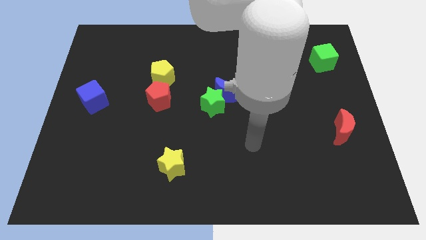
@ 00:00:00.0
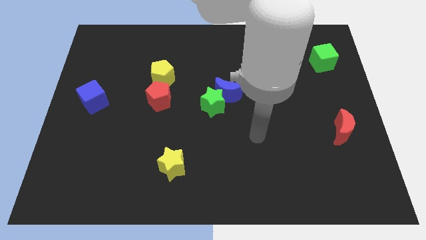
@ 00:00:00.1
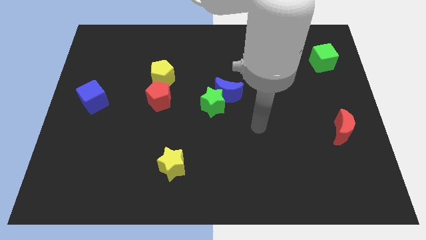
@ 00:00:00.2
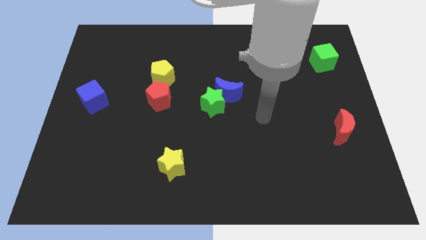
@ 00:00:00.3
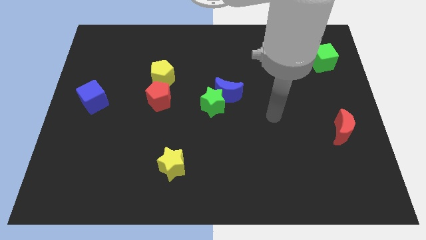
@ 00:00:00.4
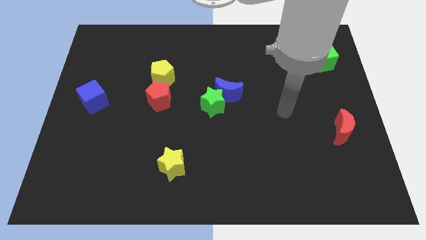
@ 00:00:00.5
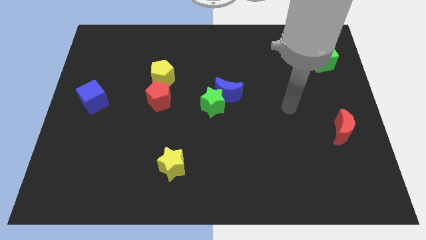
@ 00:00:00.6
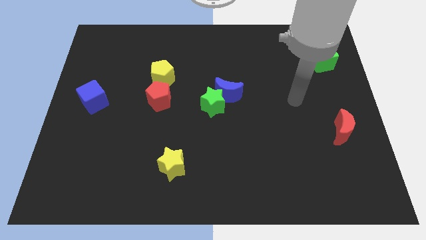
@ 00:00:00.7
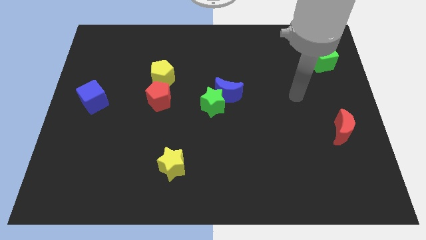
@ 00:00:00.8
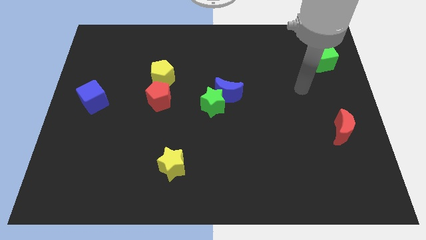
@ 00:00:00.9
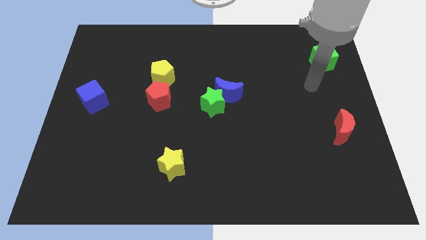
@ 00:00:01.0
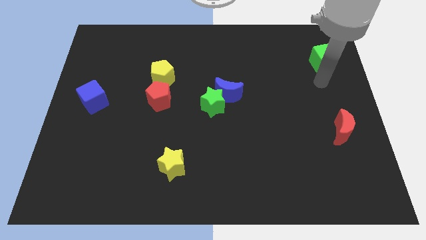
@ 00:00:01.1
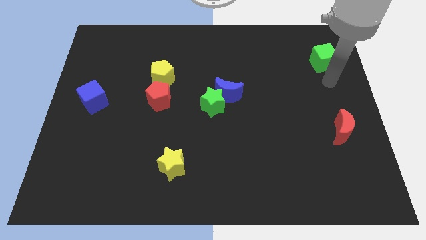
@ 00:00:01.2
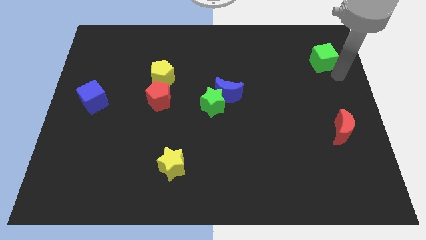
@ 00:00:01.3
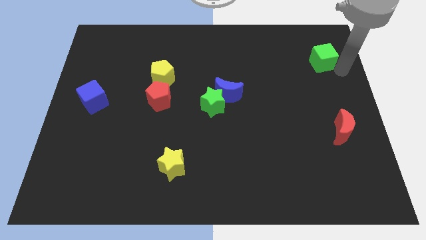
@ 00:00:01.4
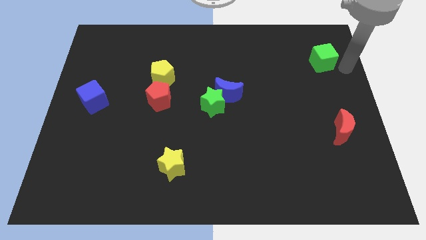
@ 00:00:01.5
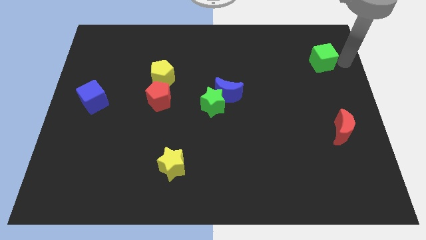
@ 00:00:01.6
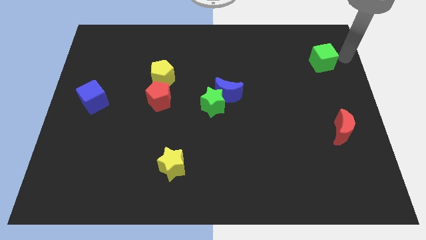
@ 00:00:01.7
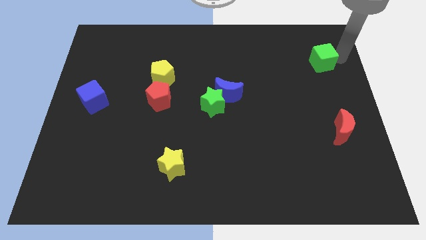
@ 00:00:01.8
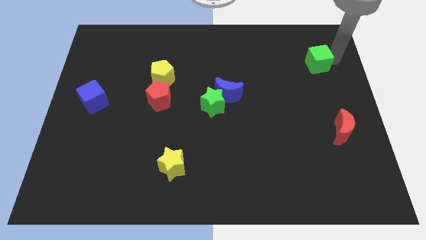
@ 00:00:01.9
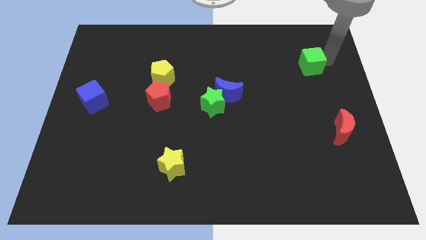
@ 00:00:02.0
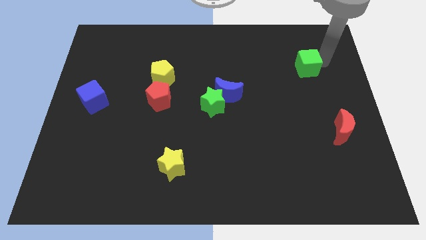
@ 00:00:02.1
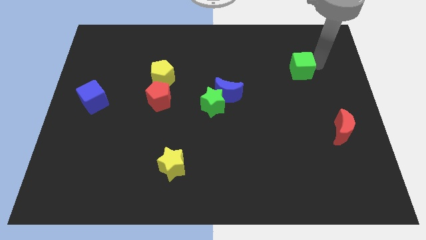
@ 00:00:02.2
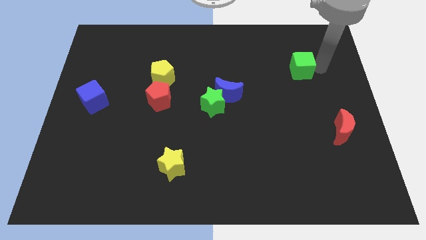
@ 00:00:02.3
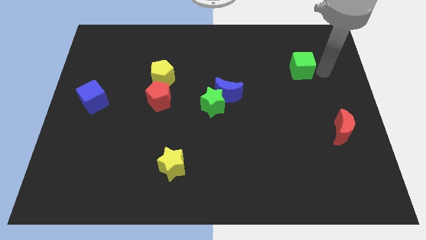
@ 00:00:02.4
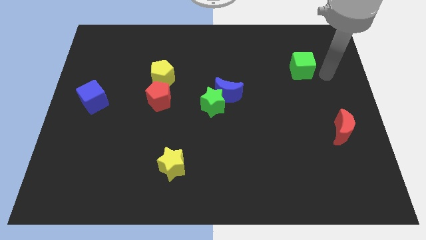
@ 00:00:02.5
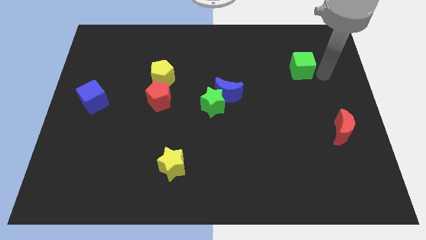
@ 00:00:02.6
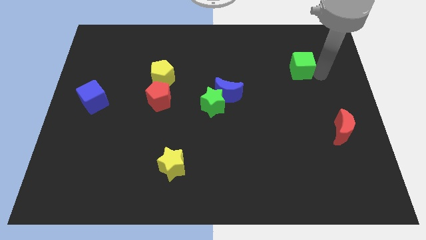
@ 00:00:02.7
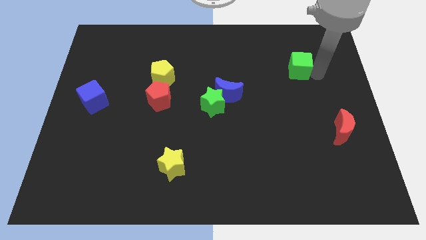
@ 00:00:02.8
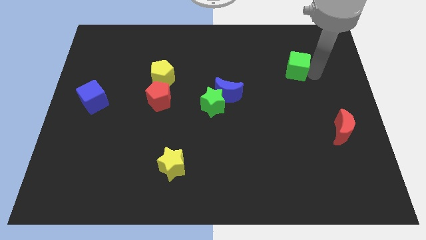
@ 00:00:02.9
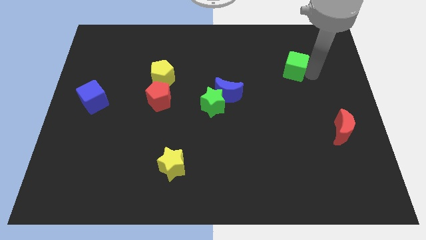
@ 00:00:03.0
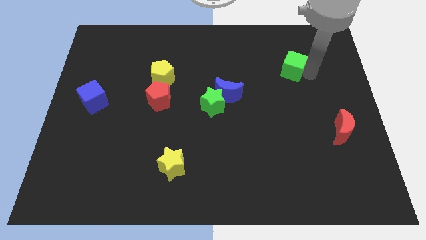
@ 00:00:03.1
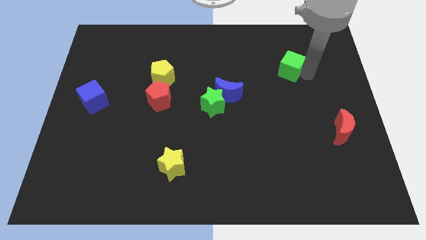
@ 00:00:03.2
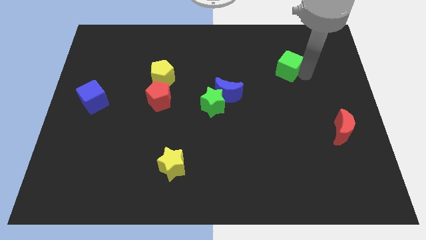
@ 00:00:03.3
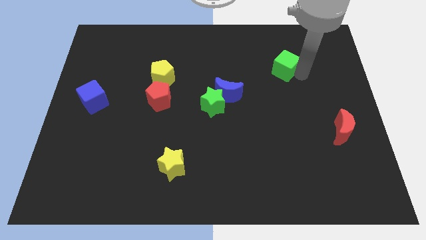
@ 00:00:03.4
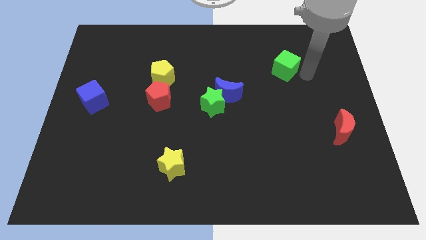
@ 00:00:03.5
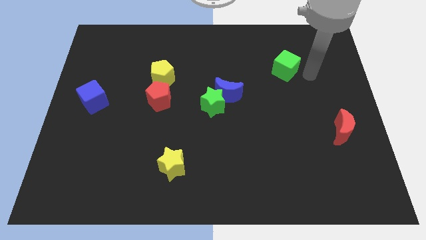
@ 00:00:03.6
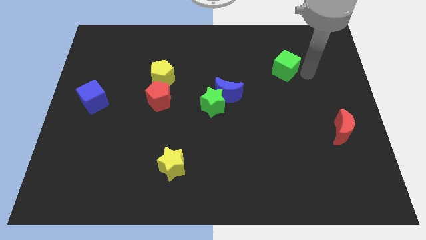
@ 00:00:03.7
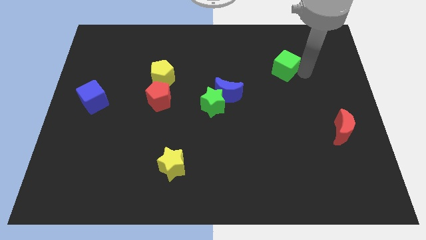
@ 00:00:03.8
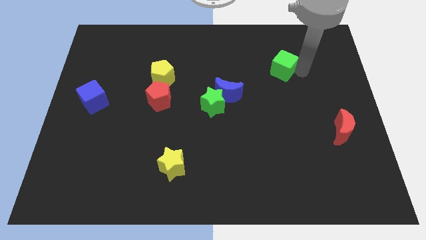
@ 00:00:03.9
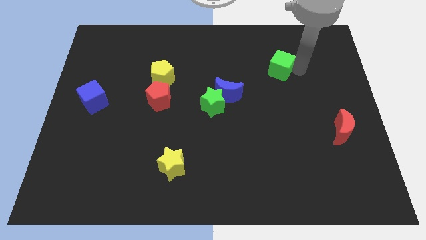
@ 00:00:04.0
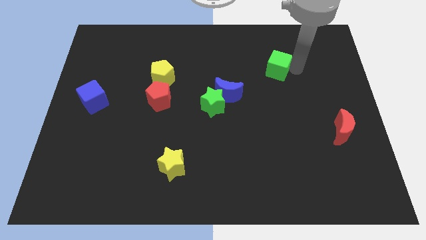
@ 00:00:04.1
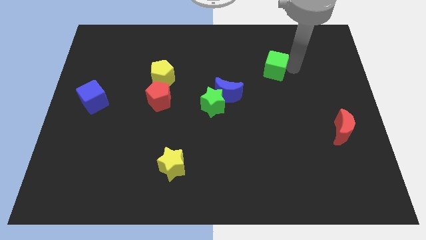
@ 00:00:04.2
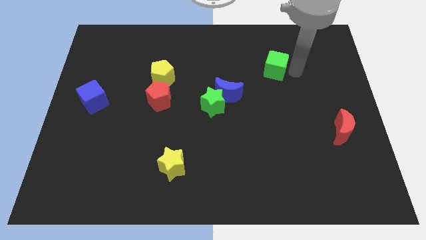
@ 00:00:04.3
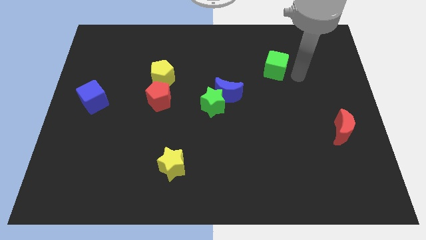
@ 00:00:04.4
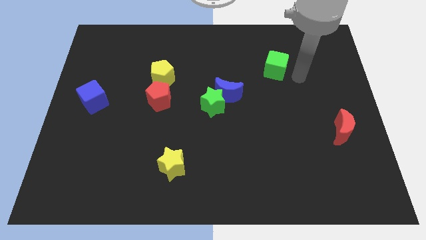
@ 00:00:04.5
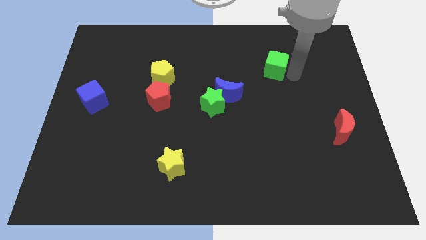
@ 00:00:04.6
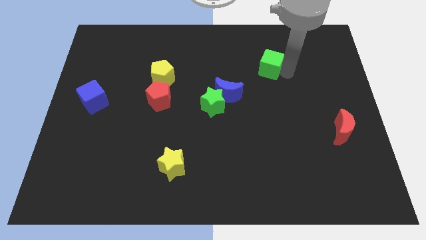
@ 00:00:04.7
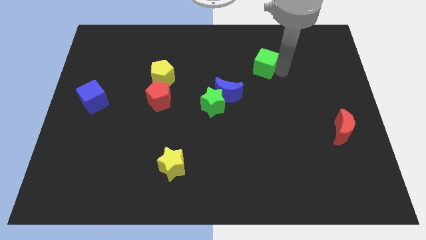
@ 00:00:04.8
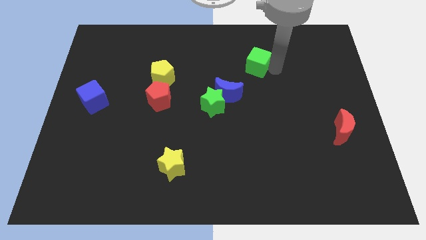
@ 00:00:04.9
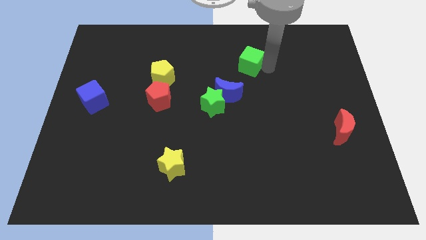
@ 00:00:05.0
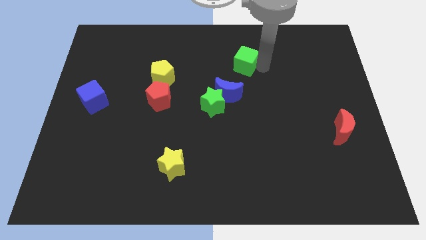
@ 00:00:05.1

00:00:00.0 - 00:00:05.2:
slide the green cube left

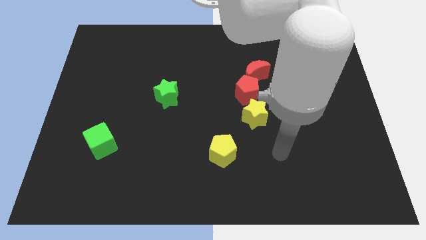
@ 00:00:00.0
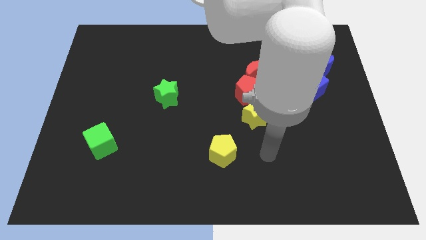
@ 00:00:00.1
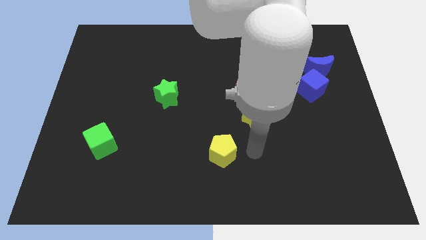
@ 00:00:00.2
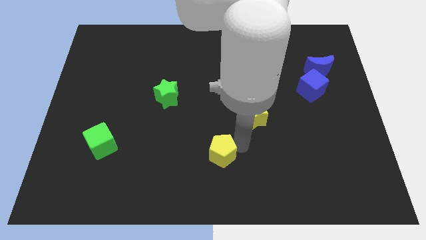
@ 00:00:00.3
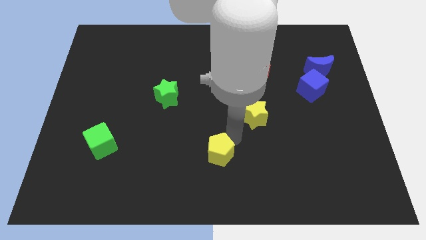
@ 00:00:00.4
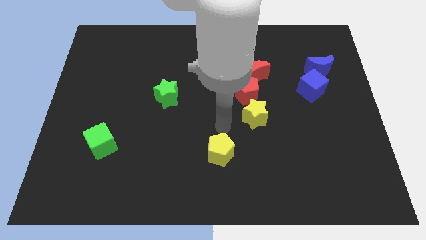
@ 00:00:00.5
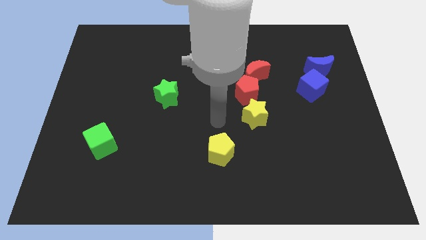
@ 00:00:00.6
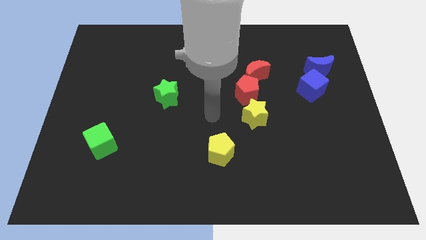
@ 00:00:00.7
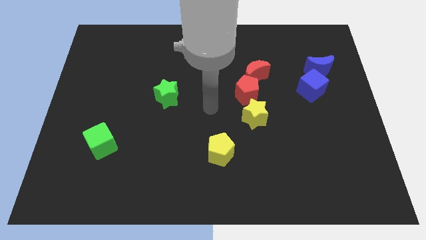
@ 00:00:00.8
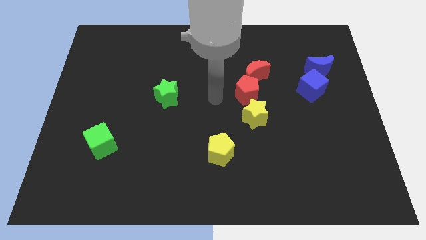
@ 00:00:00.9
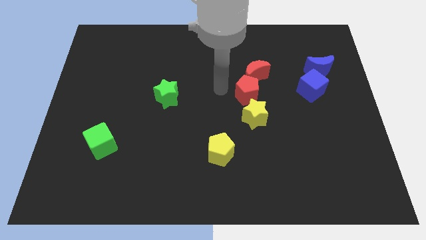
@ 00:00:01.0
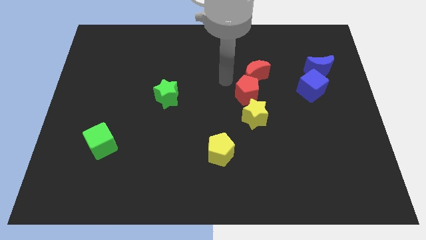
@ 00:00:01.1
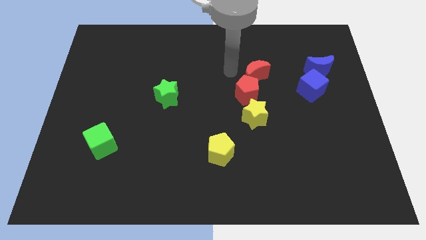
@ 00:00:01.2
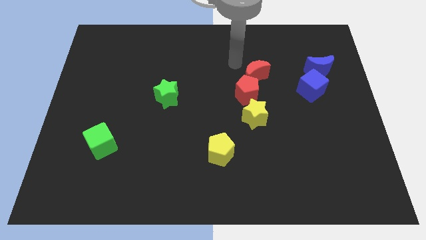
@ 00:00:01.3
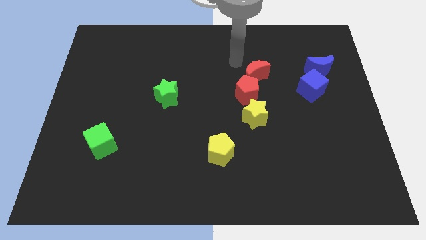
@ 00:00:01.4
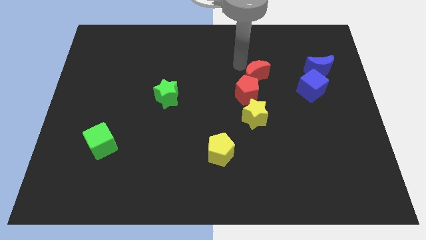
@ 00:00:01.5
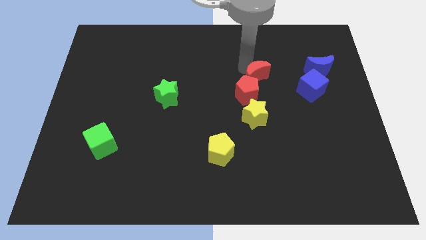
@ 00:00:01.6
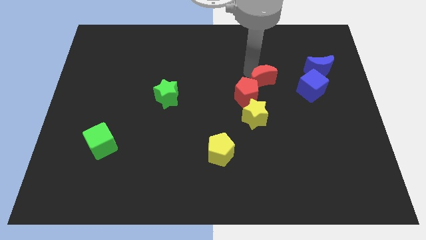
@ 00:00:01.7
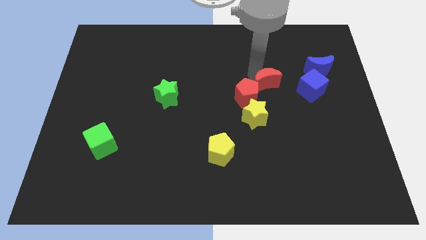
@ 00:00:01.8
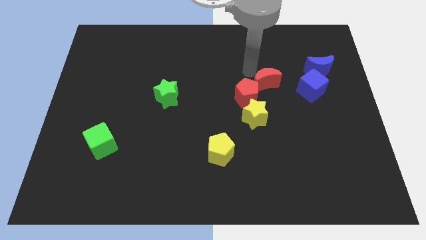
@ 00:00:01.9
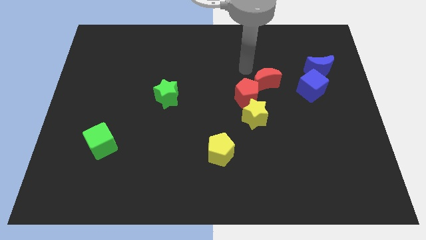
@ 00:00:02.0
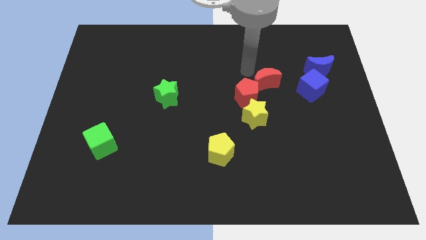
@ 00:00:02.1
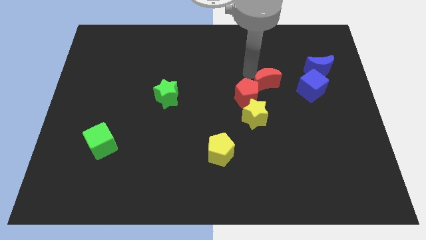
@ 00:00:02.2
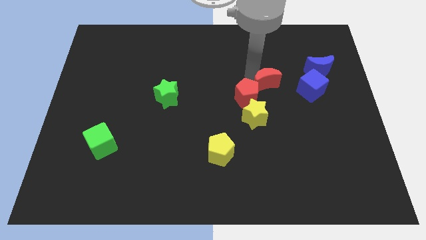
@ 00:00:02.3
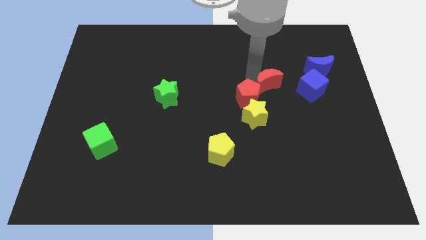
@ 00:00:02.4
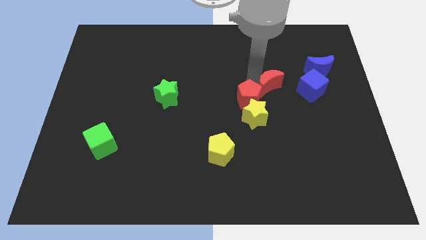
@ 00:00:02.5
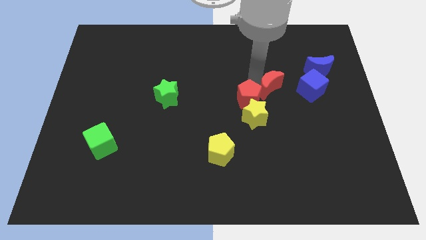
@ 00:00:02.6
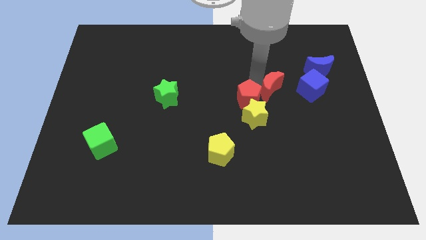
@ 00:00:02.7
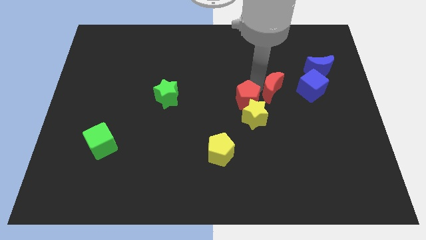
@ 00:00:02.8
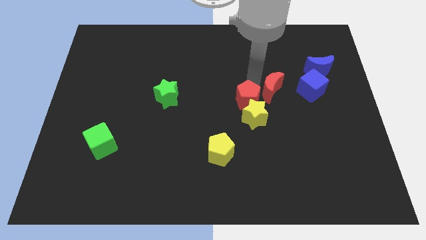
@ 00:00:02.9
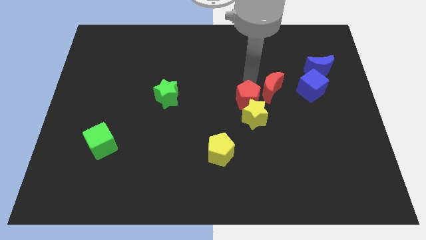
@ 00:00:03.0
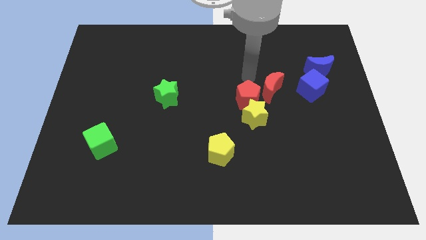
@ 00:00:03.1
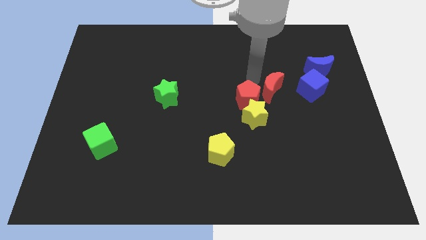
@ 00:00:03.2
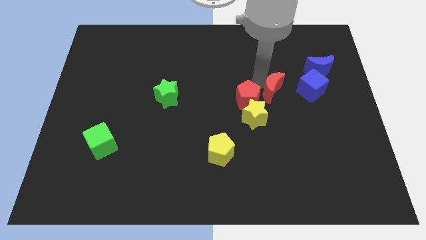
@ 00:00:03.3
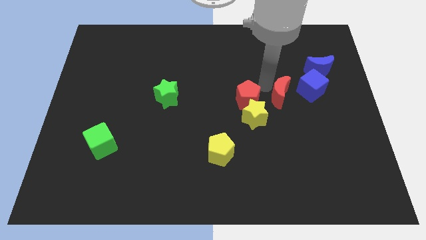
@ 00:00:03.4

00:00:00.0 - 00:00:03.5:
push the red moon down and to the right slightly
